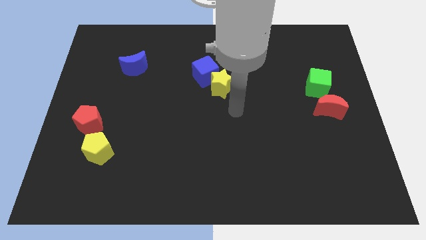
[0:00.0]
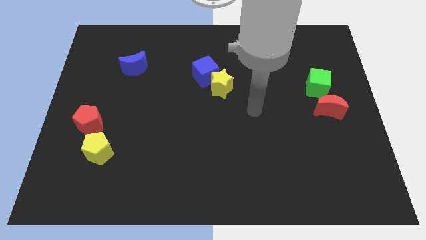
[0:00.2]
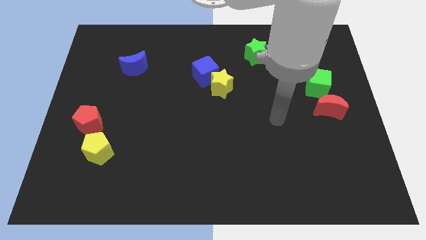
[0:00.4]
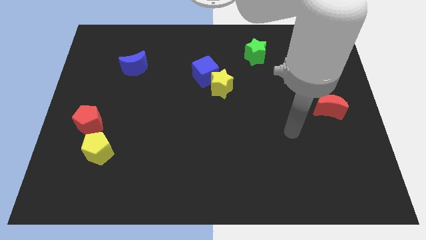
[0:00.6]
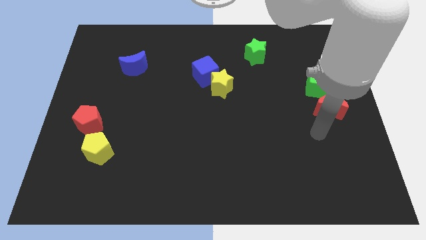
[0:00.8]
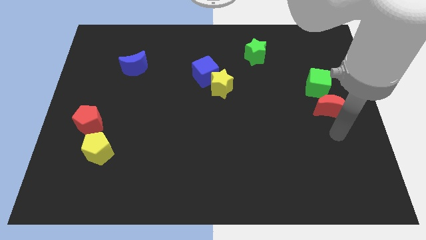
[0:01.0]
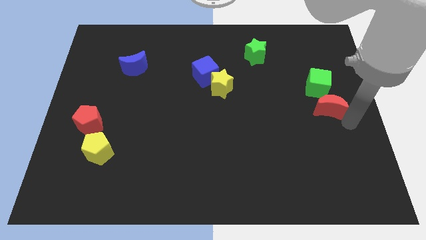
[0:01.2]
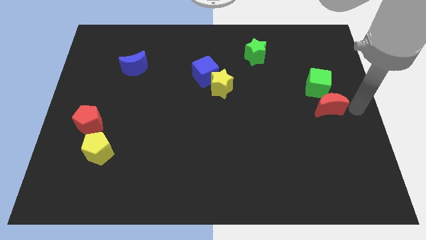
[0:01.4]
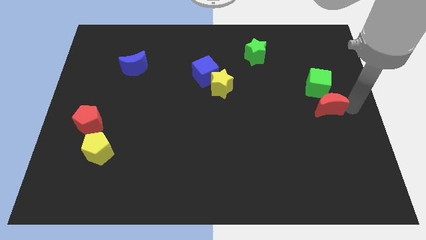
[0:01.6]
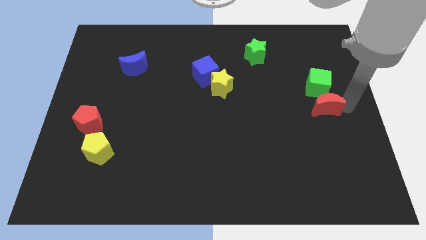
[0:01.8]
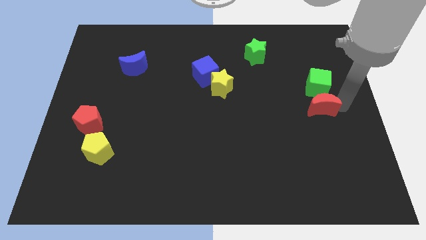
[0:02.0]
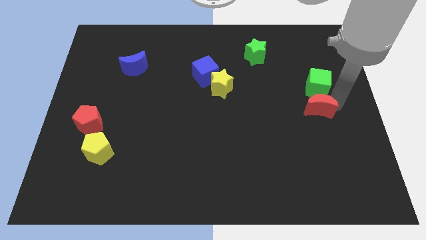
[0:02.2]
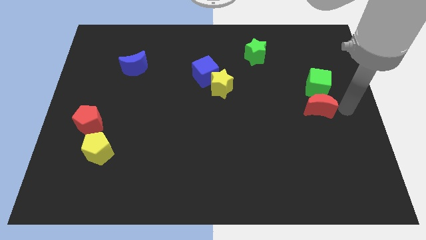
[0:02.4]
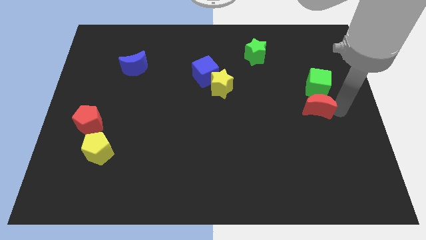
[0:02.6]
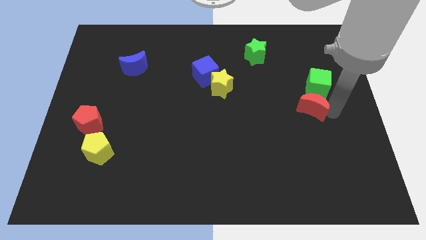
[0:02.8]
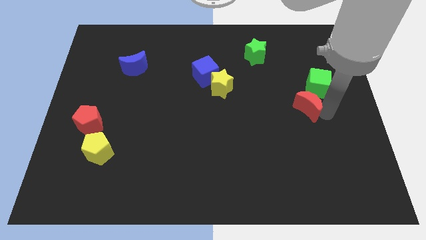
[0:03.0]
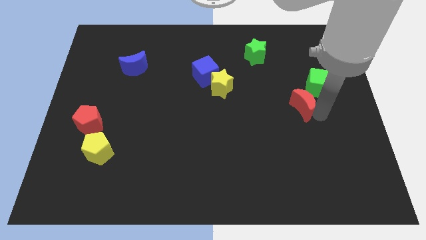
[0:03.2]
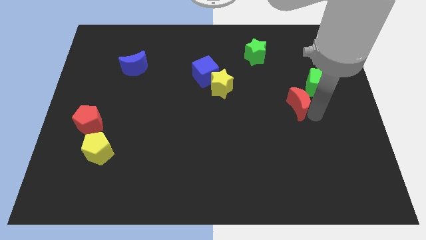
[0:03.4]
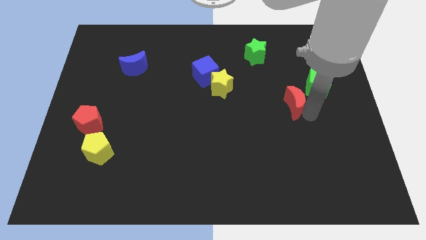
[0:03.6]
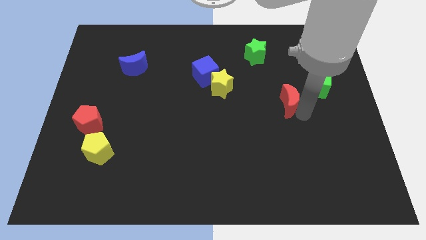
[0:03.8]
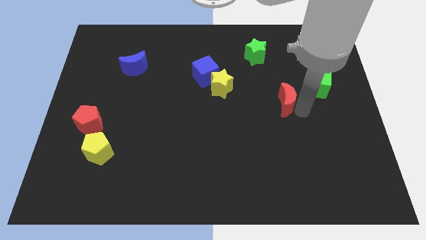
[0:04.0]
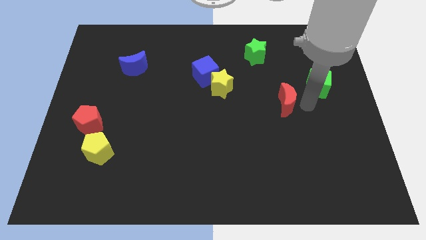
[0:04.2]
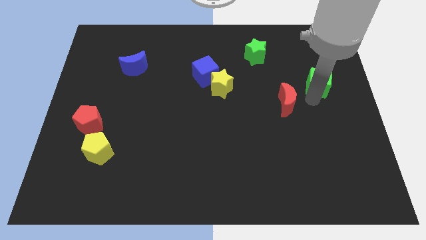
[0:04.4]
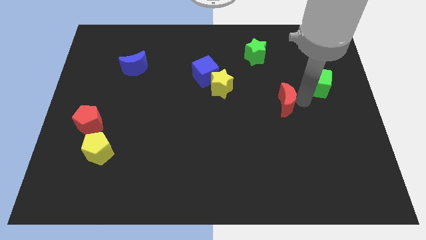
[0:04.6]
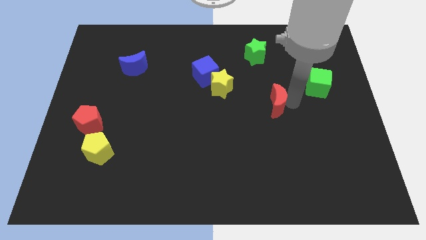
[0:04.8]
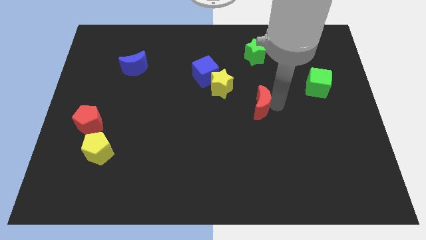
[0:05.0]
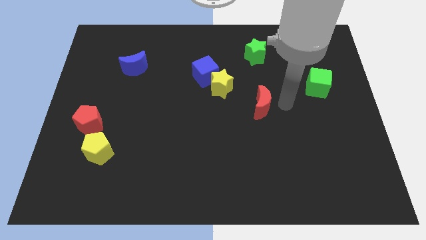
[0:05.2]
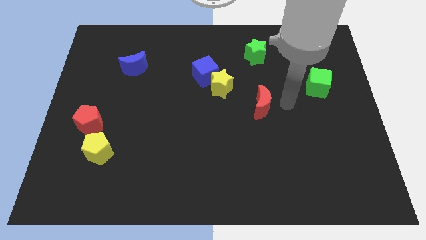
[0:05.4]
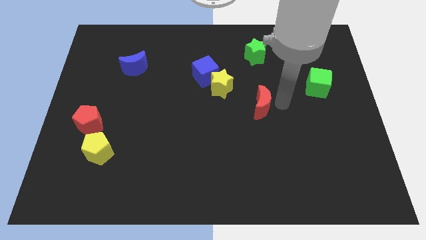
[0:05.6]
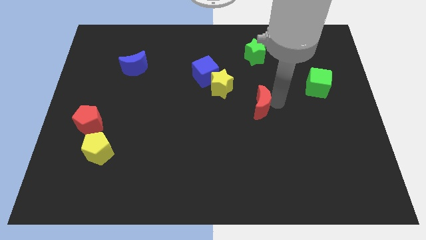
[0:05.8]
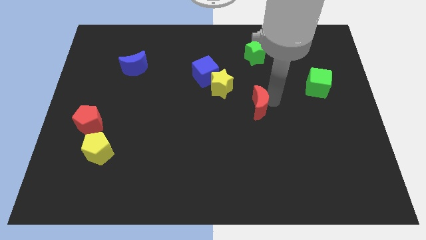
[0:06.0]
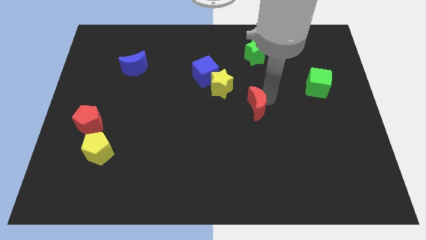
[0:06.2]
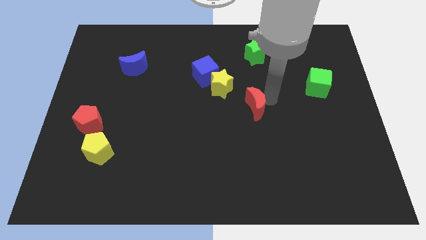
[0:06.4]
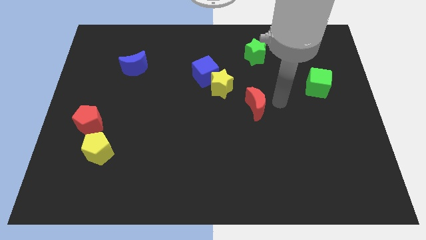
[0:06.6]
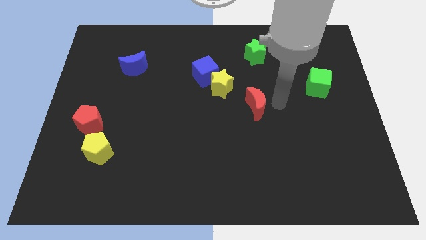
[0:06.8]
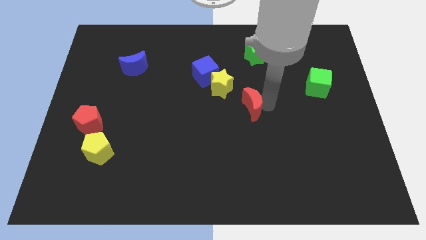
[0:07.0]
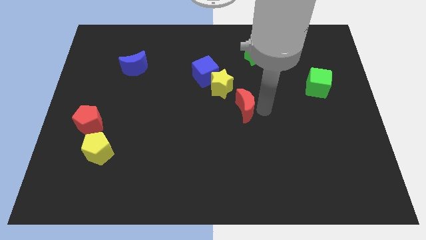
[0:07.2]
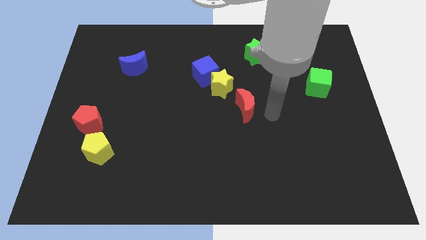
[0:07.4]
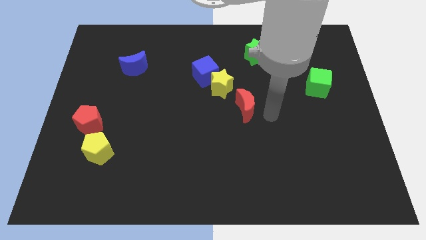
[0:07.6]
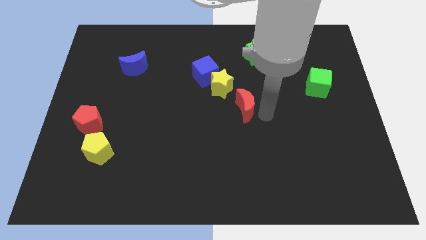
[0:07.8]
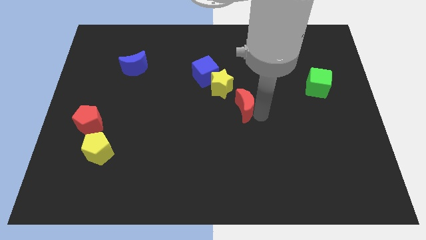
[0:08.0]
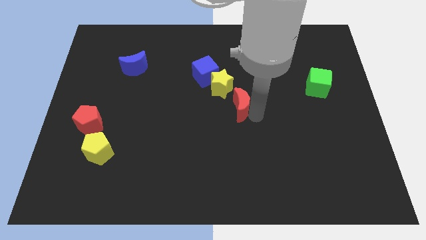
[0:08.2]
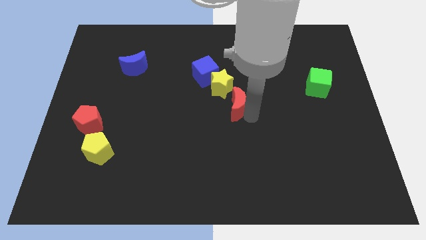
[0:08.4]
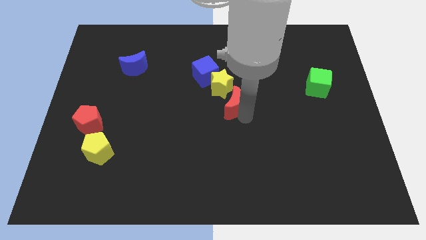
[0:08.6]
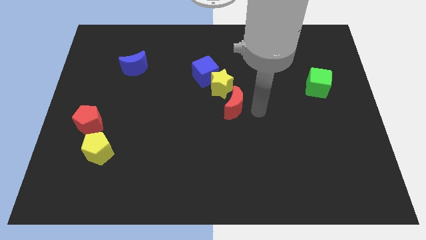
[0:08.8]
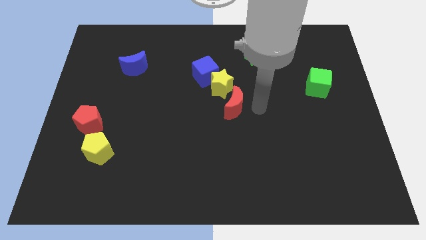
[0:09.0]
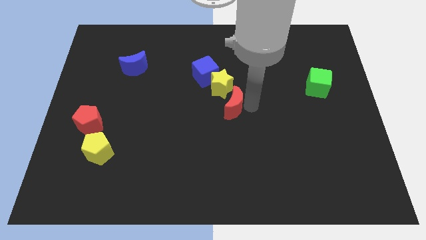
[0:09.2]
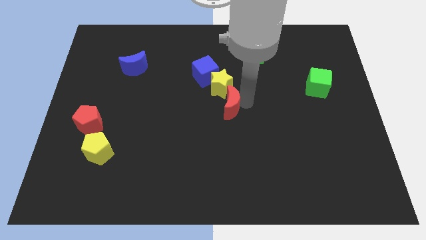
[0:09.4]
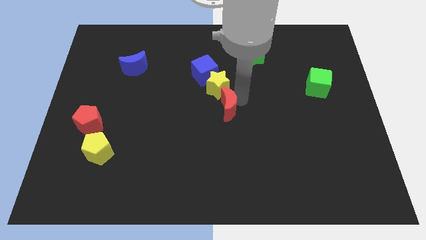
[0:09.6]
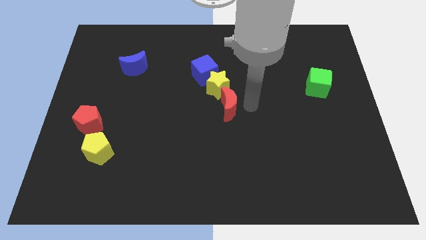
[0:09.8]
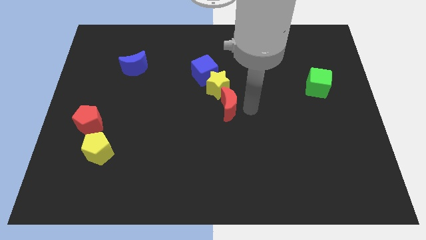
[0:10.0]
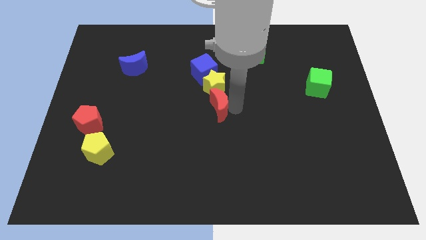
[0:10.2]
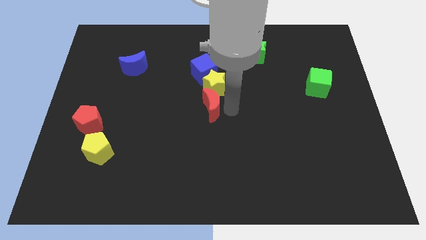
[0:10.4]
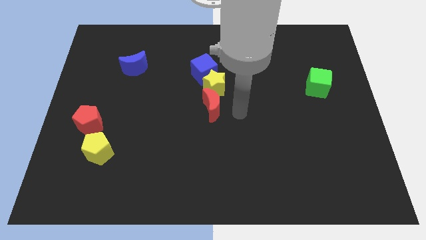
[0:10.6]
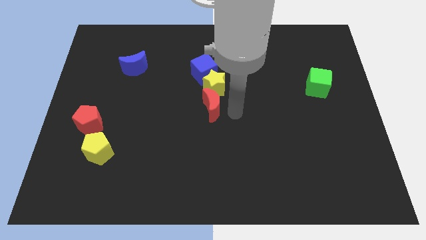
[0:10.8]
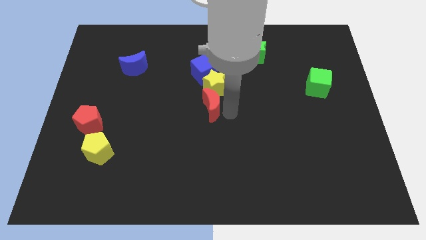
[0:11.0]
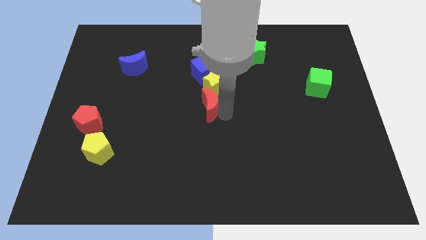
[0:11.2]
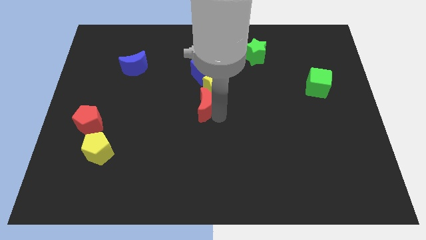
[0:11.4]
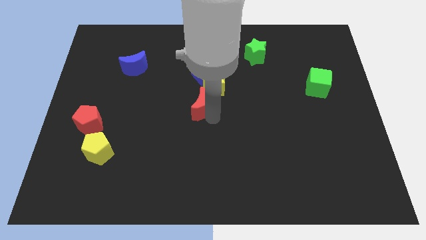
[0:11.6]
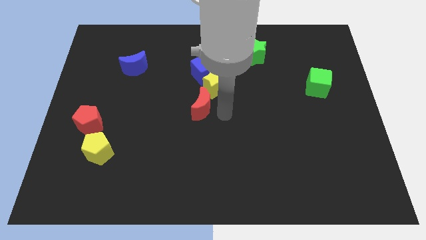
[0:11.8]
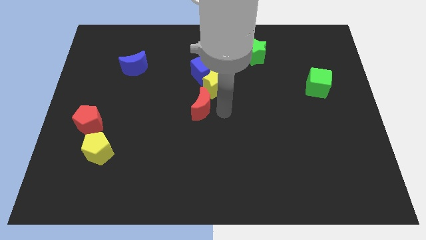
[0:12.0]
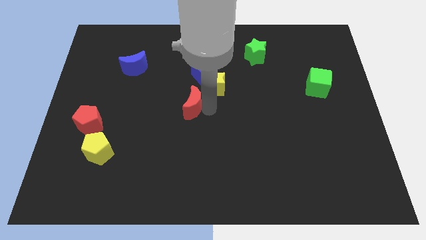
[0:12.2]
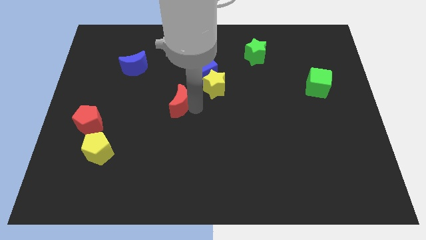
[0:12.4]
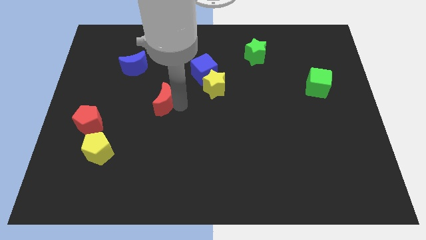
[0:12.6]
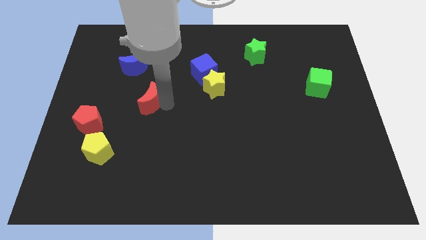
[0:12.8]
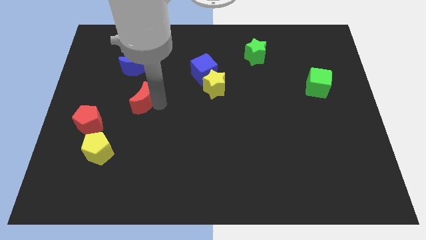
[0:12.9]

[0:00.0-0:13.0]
slide the red moon below the blue moon

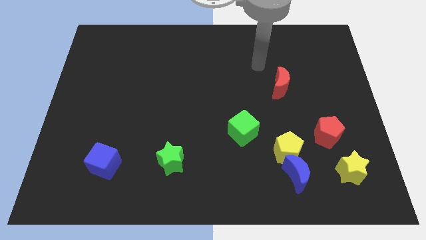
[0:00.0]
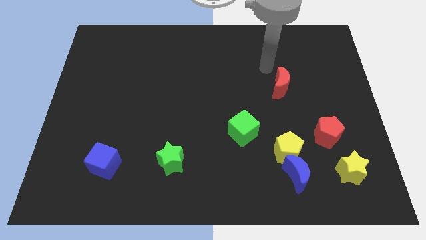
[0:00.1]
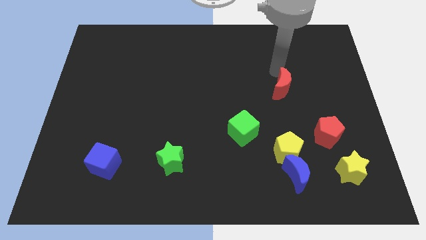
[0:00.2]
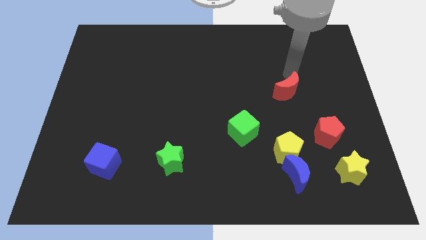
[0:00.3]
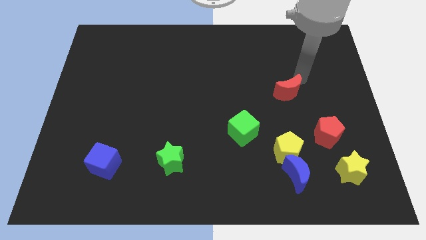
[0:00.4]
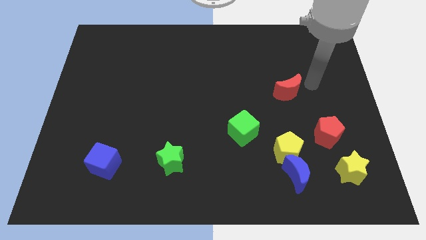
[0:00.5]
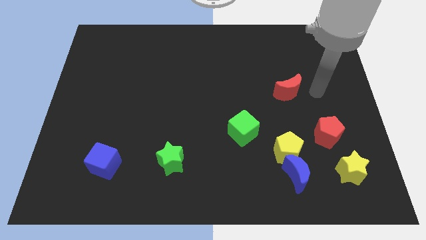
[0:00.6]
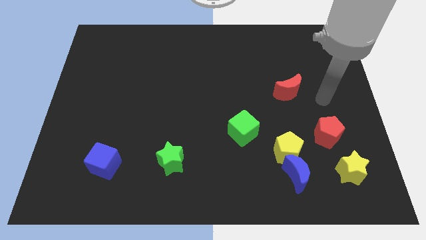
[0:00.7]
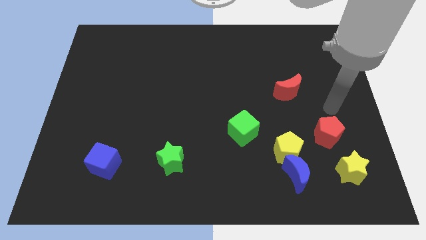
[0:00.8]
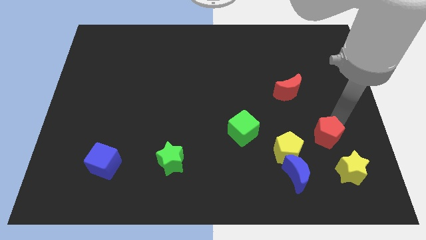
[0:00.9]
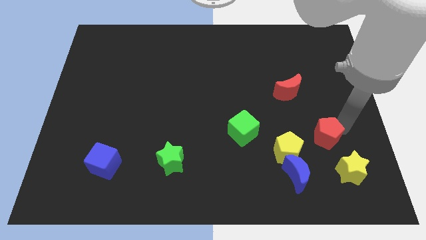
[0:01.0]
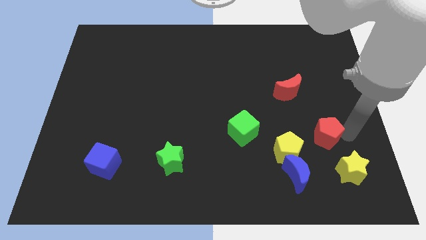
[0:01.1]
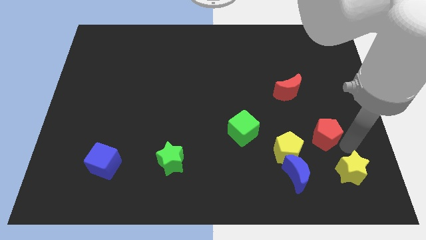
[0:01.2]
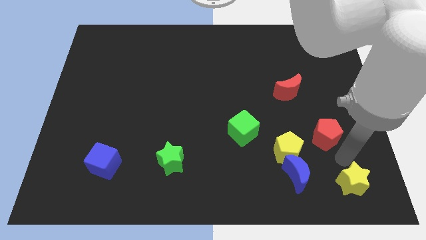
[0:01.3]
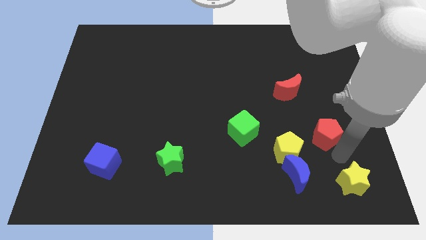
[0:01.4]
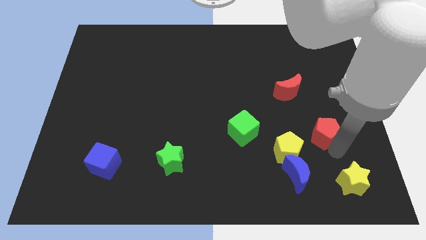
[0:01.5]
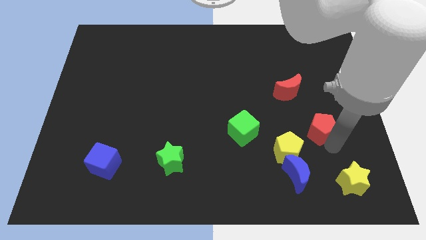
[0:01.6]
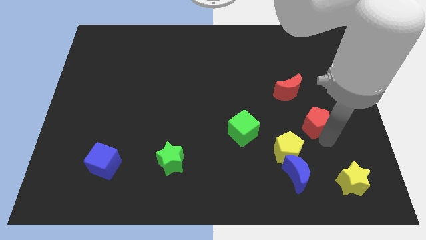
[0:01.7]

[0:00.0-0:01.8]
put the red pentagon to the bottom right of the red moon
